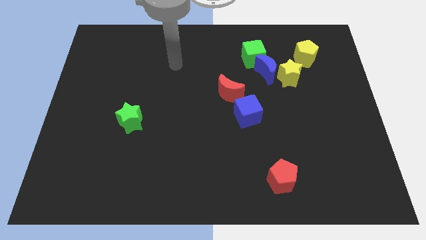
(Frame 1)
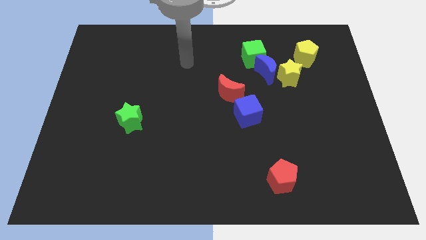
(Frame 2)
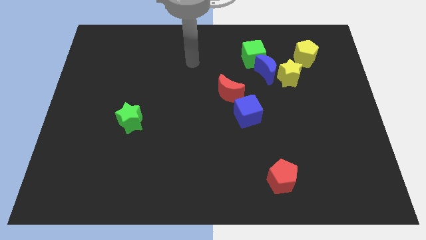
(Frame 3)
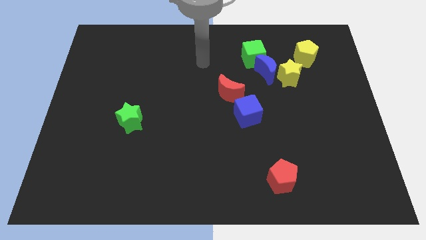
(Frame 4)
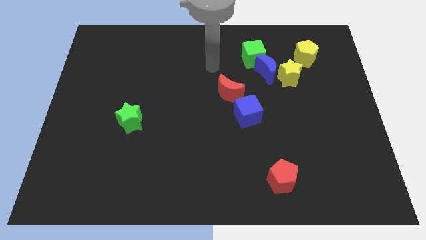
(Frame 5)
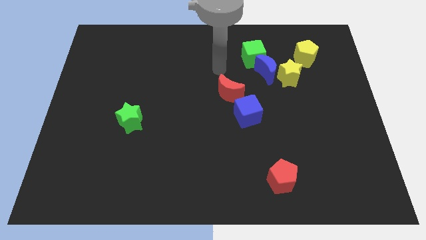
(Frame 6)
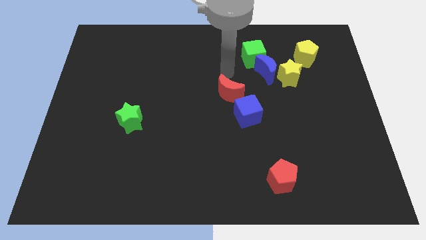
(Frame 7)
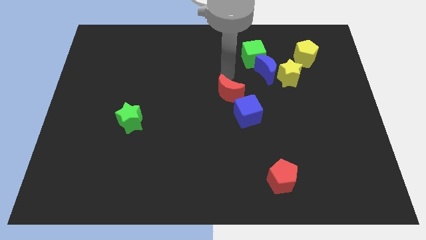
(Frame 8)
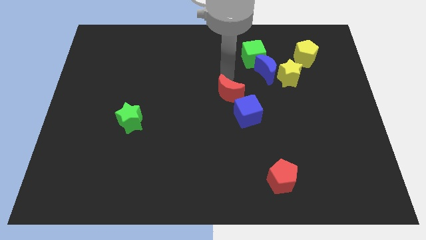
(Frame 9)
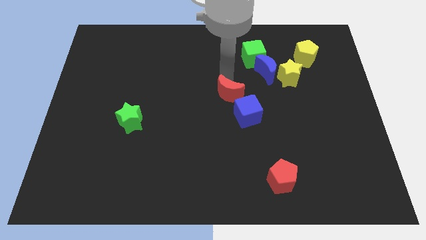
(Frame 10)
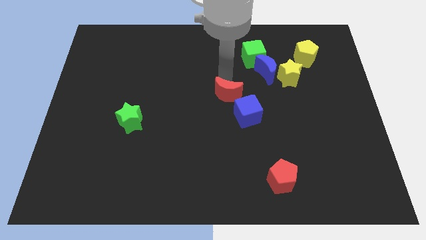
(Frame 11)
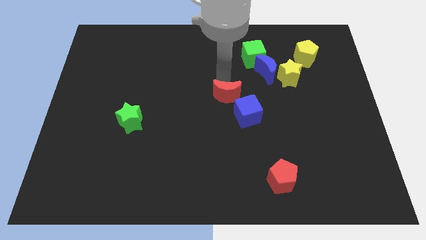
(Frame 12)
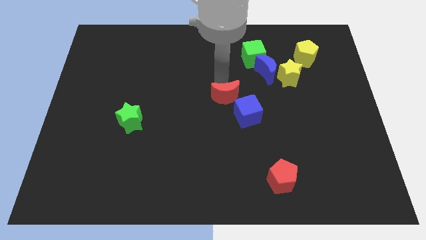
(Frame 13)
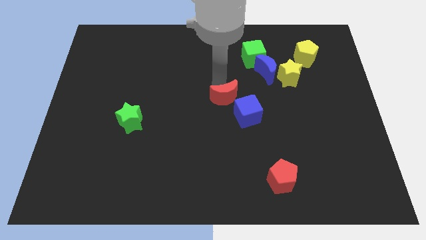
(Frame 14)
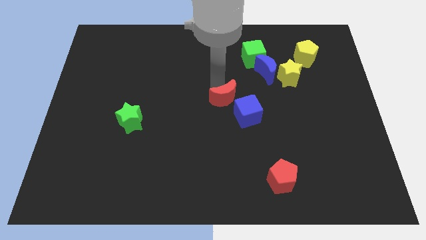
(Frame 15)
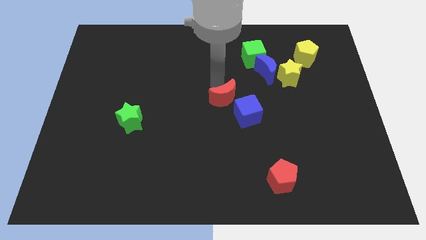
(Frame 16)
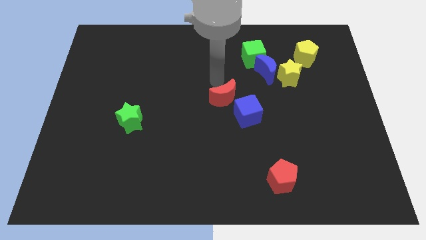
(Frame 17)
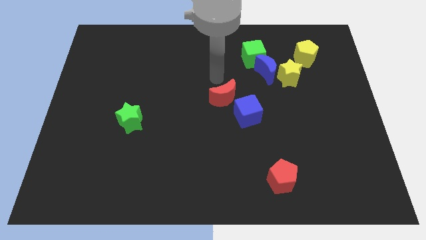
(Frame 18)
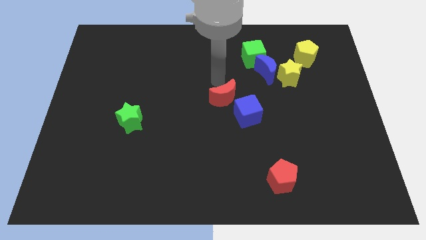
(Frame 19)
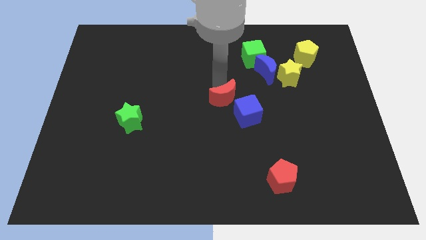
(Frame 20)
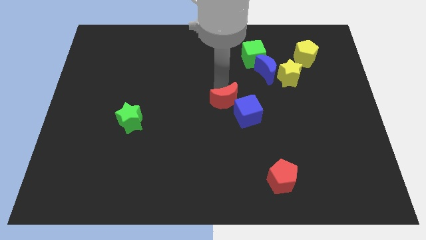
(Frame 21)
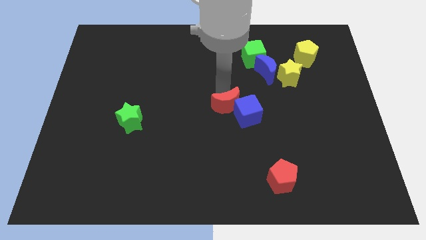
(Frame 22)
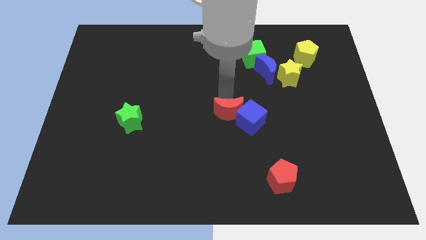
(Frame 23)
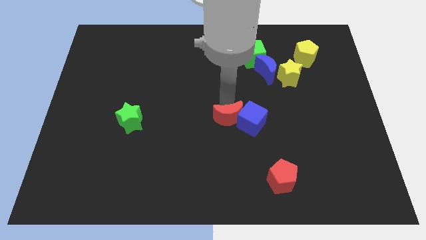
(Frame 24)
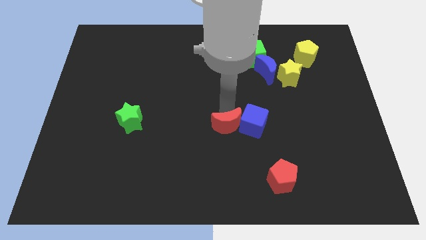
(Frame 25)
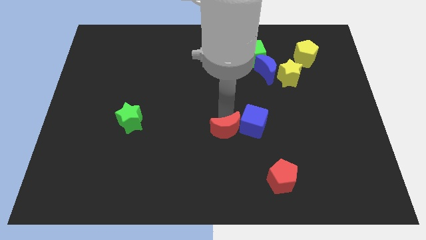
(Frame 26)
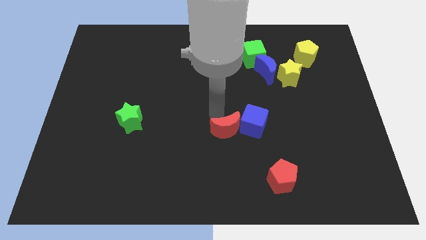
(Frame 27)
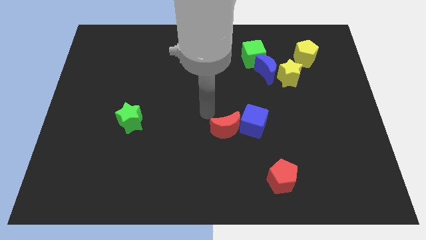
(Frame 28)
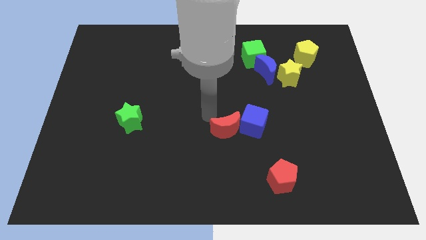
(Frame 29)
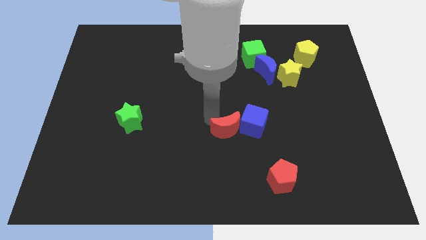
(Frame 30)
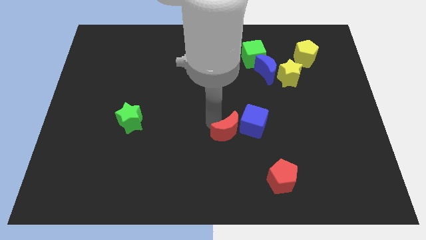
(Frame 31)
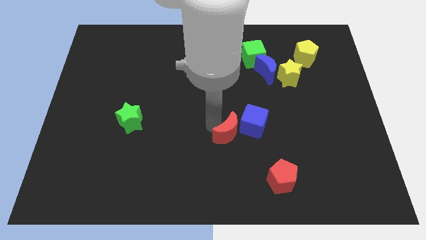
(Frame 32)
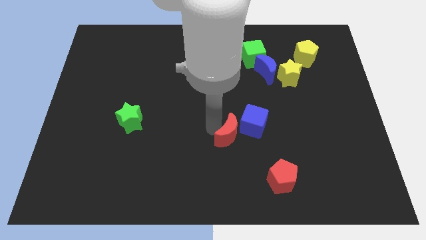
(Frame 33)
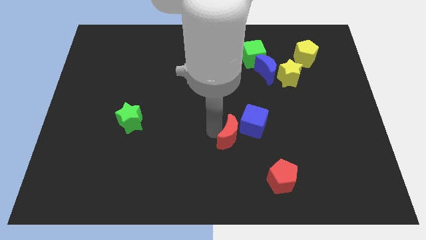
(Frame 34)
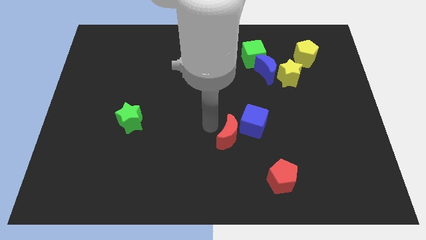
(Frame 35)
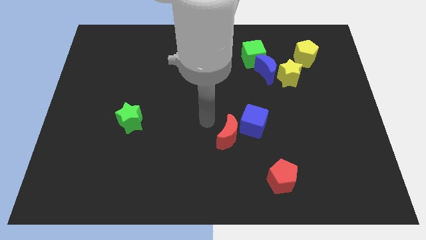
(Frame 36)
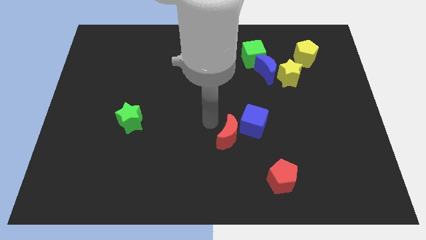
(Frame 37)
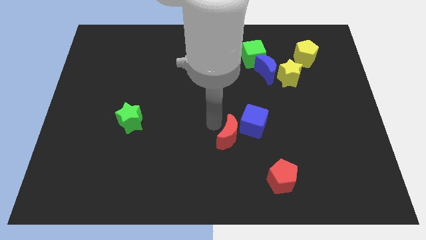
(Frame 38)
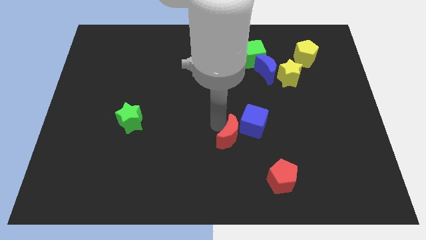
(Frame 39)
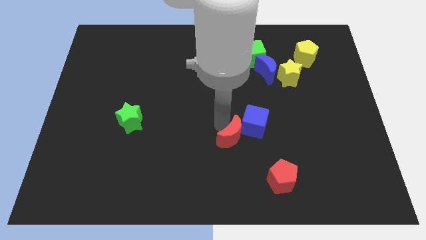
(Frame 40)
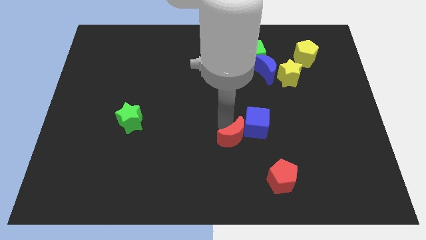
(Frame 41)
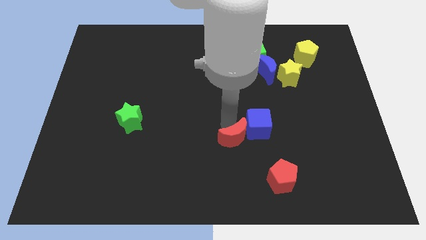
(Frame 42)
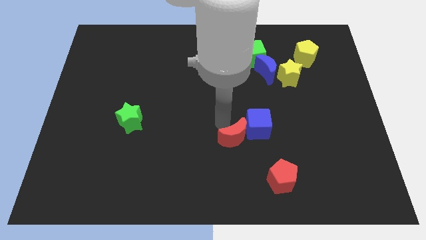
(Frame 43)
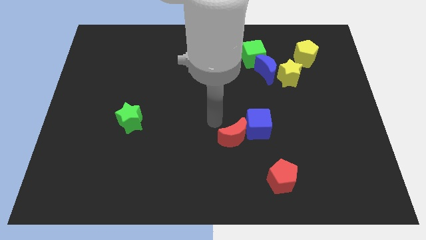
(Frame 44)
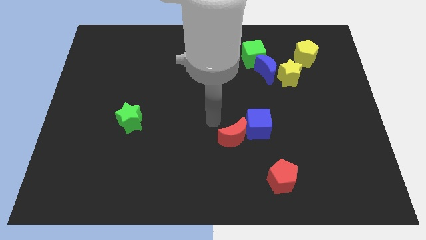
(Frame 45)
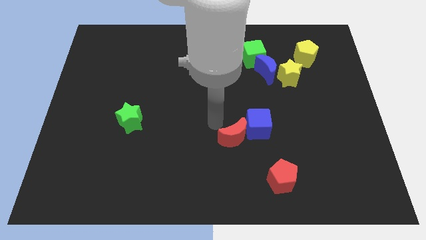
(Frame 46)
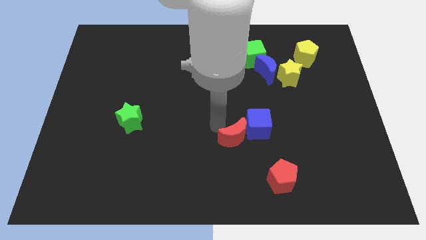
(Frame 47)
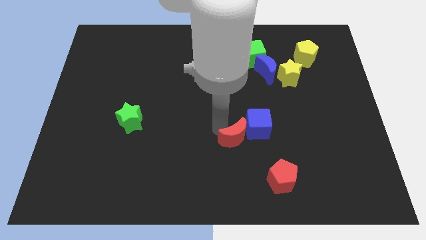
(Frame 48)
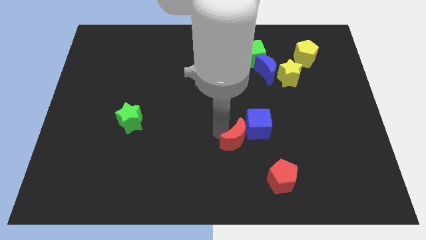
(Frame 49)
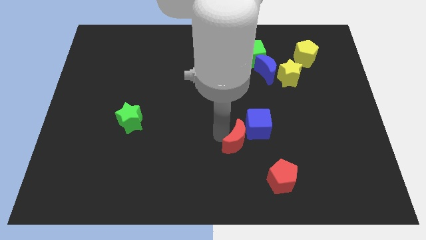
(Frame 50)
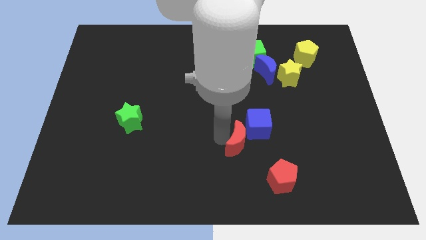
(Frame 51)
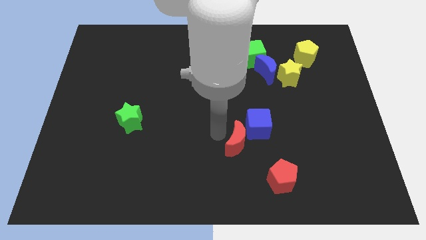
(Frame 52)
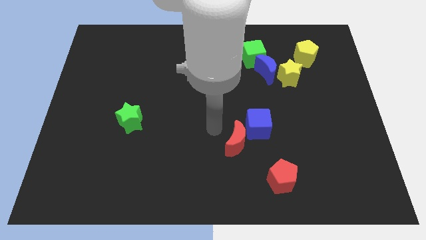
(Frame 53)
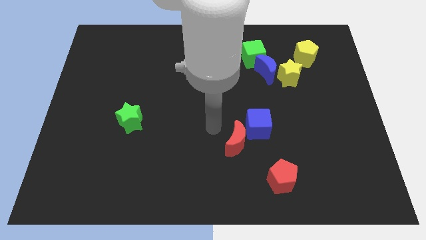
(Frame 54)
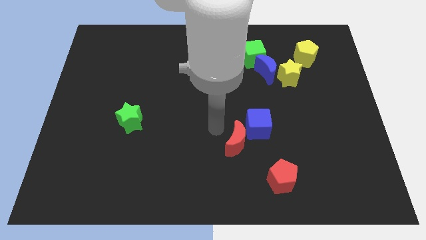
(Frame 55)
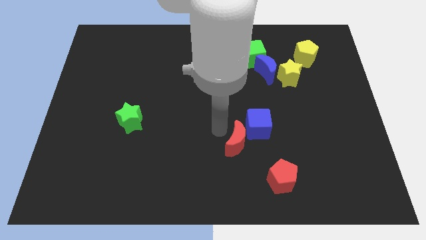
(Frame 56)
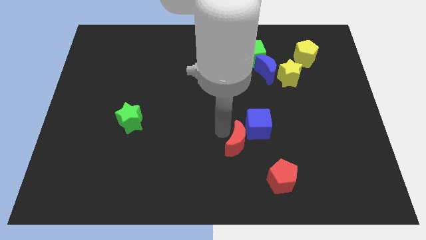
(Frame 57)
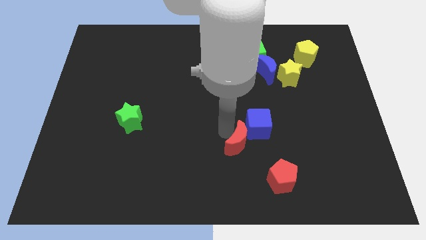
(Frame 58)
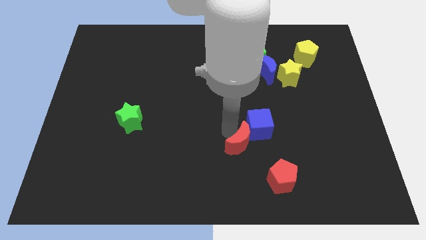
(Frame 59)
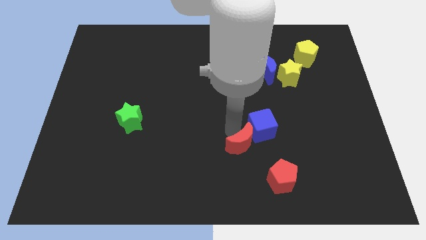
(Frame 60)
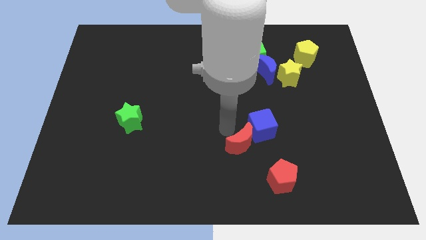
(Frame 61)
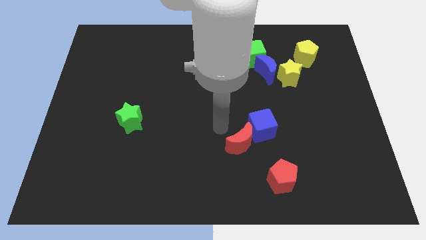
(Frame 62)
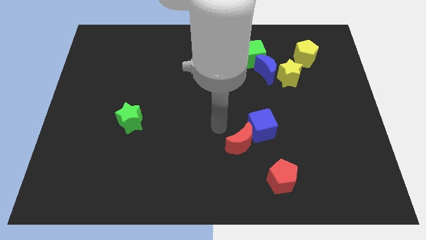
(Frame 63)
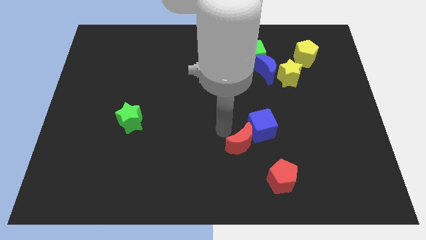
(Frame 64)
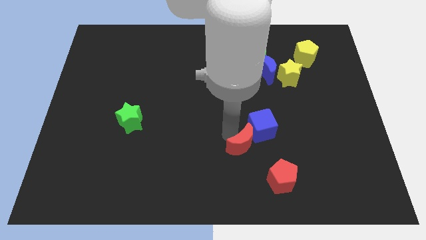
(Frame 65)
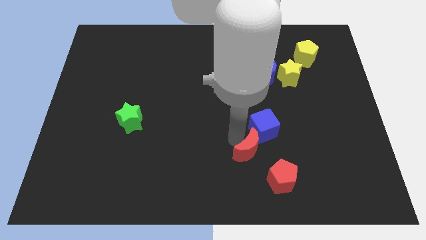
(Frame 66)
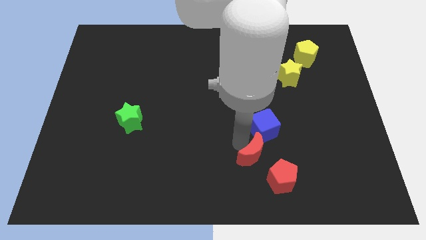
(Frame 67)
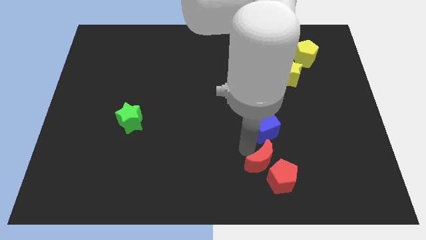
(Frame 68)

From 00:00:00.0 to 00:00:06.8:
push the red moon to the red pentagon
